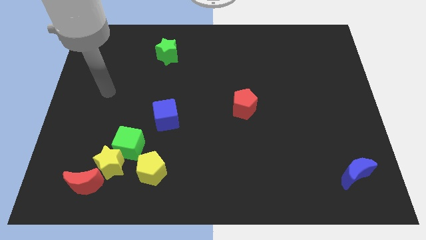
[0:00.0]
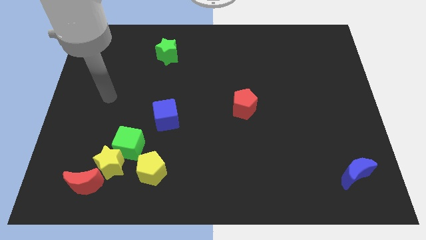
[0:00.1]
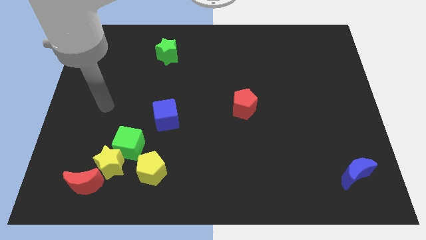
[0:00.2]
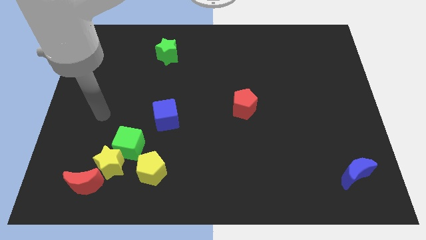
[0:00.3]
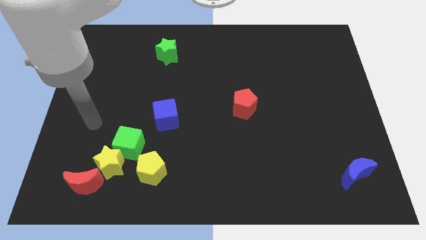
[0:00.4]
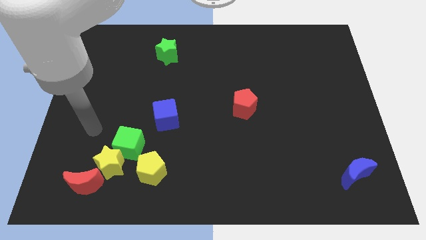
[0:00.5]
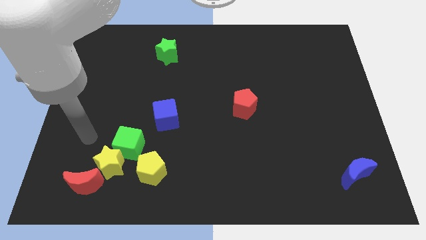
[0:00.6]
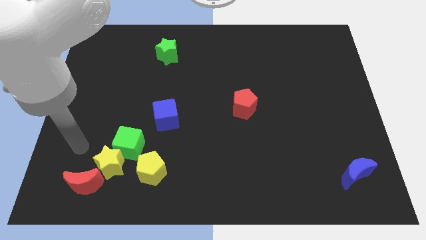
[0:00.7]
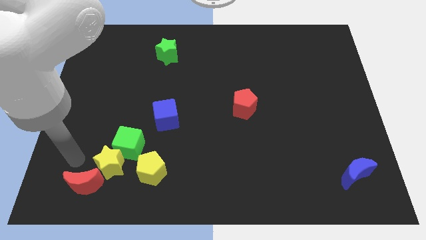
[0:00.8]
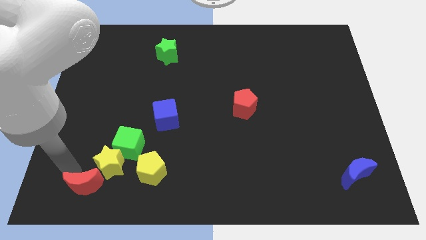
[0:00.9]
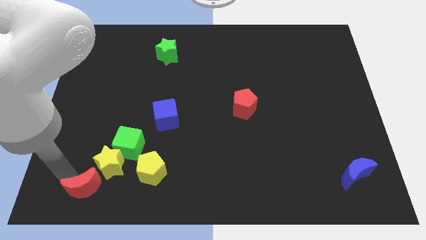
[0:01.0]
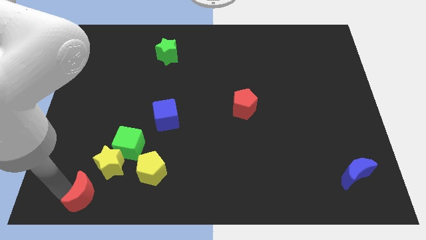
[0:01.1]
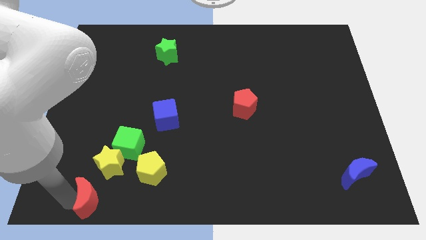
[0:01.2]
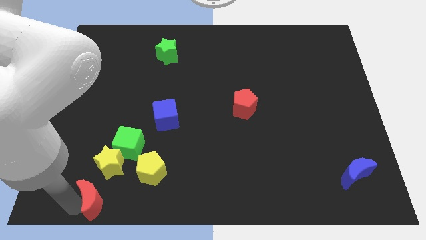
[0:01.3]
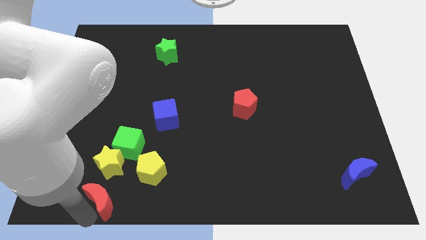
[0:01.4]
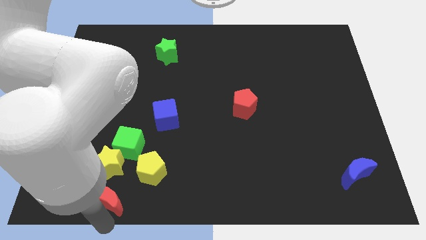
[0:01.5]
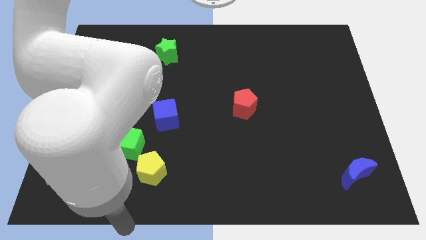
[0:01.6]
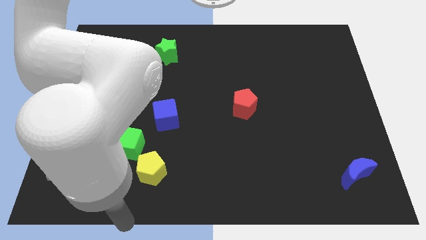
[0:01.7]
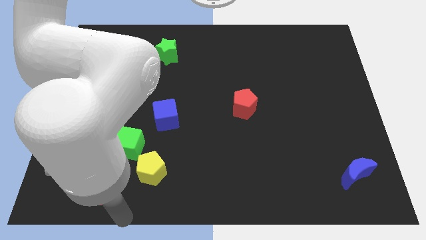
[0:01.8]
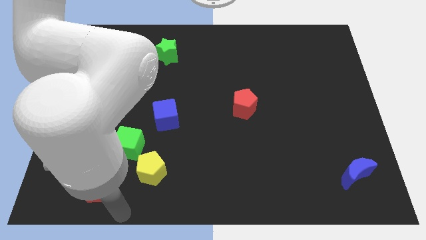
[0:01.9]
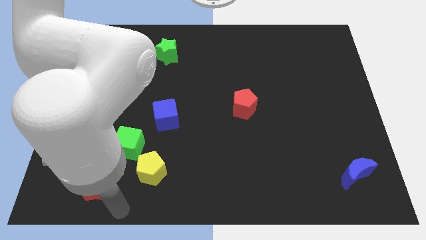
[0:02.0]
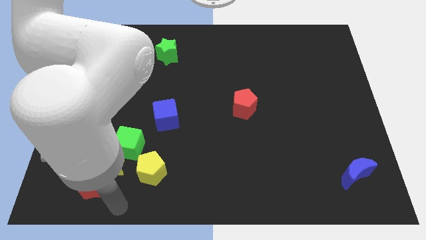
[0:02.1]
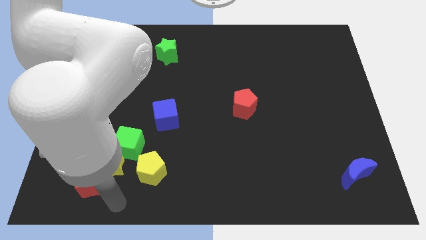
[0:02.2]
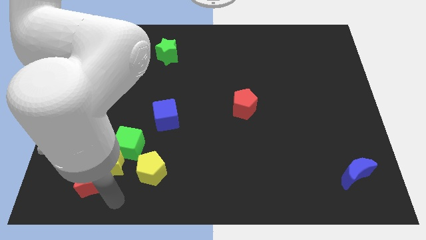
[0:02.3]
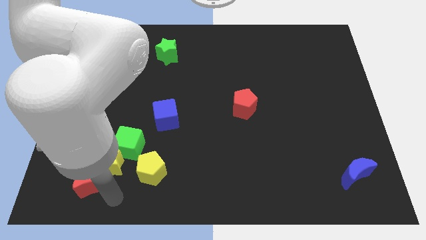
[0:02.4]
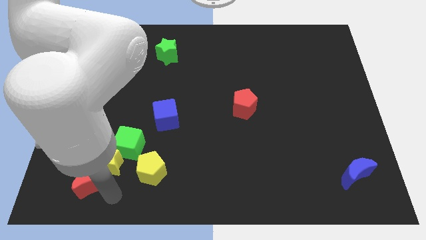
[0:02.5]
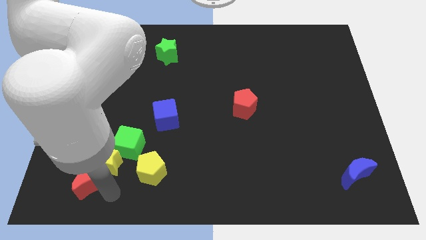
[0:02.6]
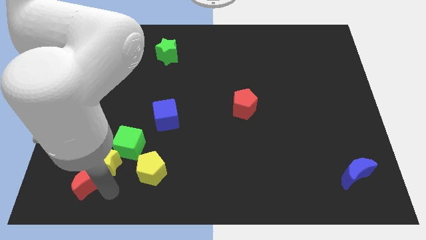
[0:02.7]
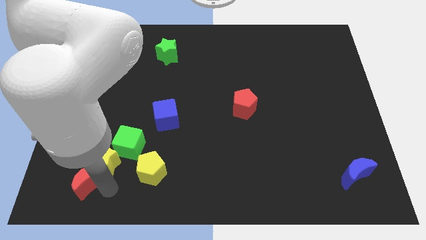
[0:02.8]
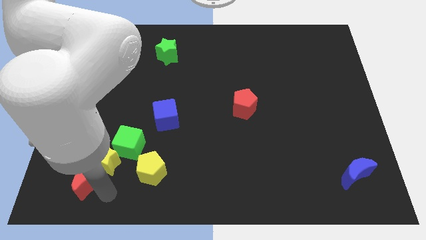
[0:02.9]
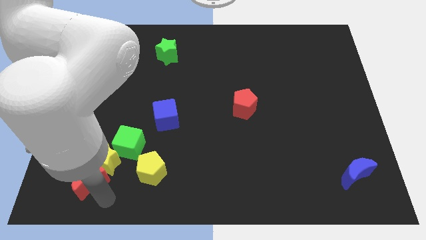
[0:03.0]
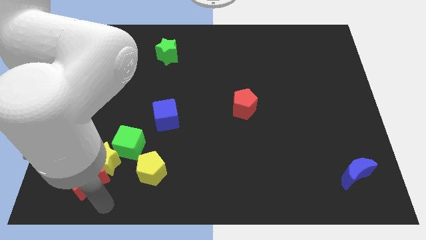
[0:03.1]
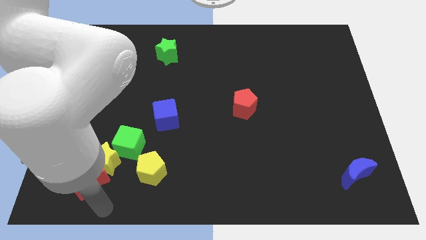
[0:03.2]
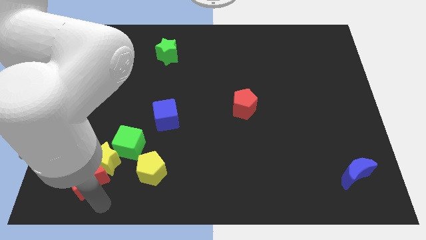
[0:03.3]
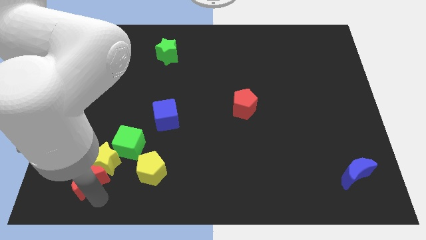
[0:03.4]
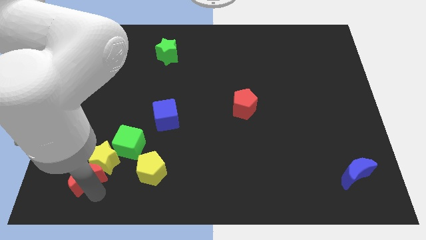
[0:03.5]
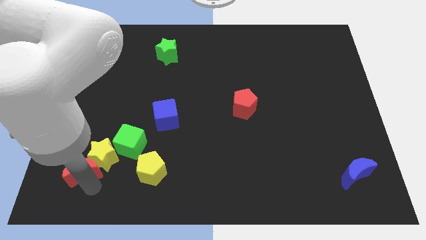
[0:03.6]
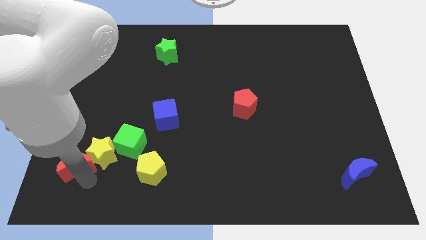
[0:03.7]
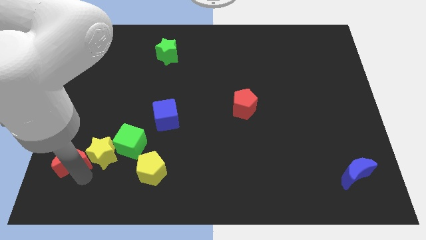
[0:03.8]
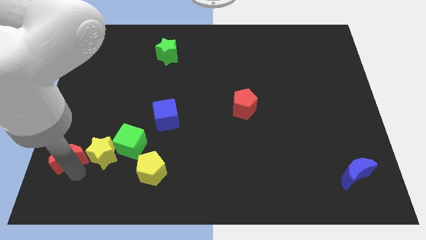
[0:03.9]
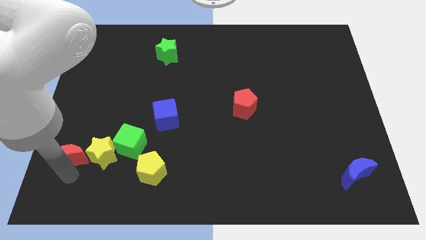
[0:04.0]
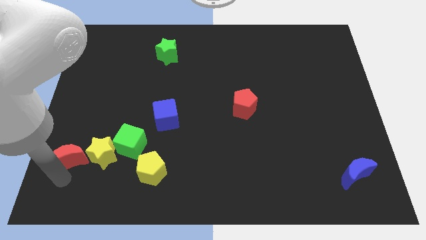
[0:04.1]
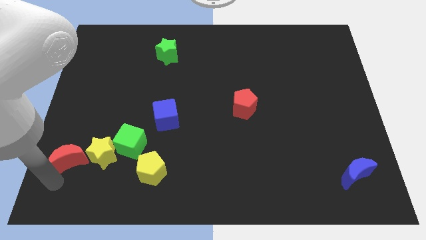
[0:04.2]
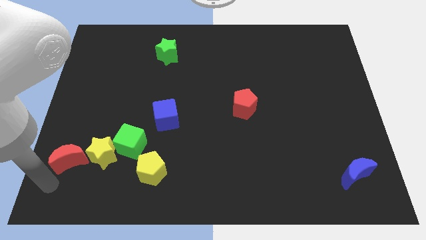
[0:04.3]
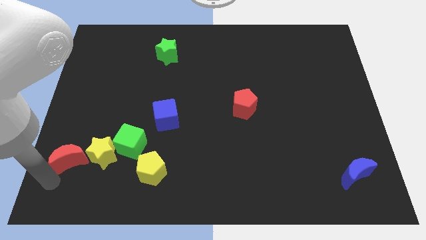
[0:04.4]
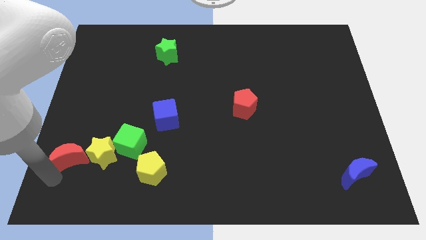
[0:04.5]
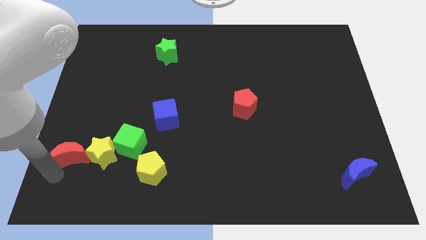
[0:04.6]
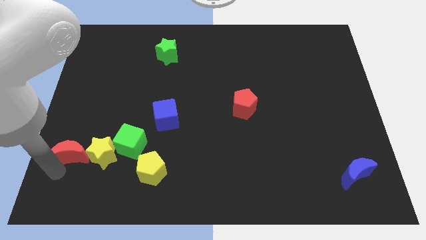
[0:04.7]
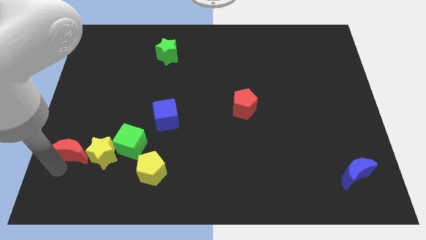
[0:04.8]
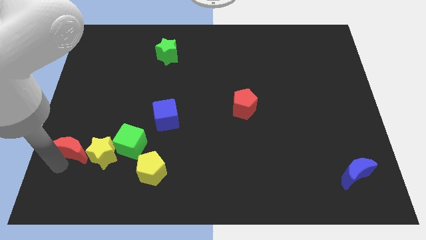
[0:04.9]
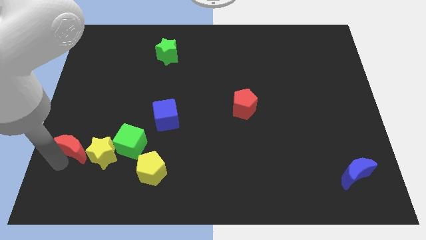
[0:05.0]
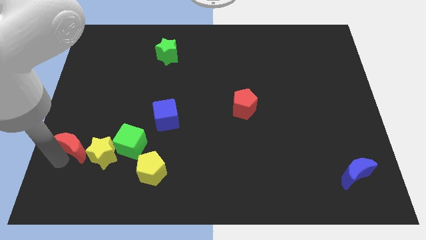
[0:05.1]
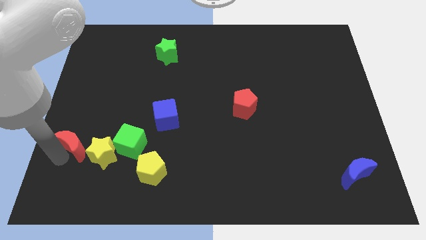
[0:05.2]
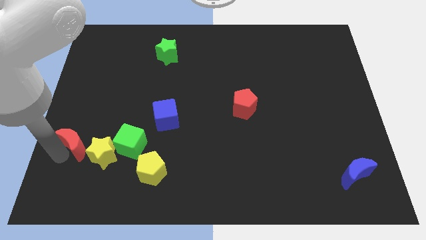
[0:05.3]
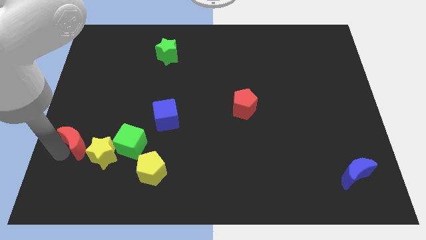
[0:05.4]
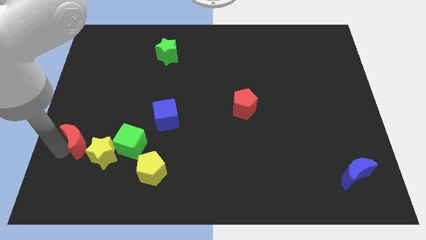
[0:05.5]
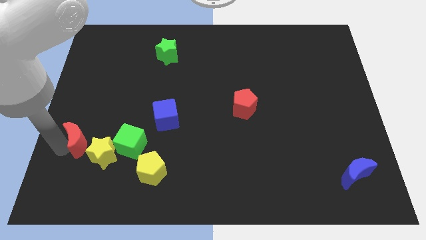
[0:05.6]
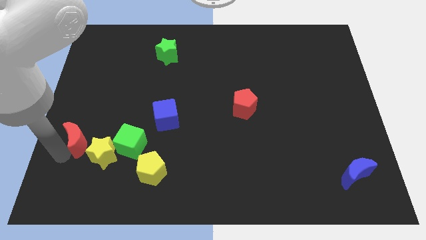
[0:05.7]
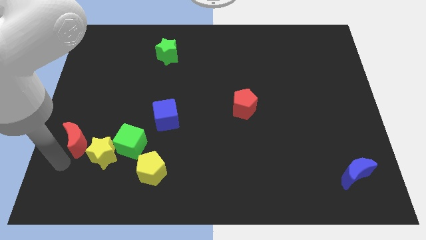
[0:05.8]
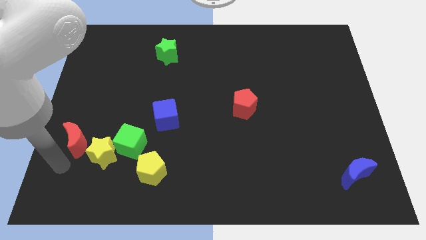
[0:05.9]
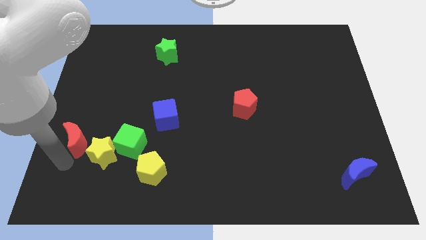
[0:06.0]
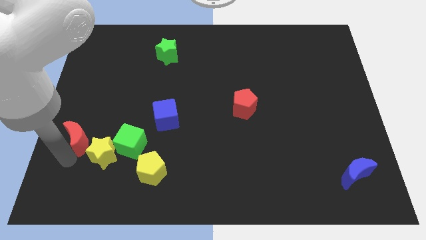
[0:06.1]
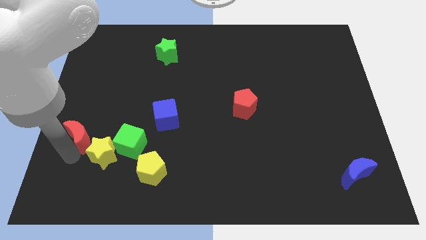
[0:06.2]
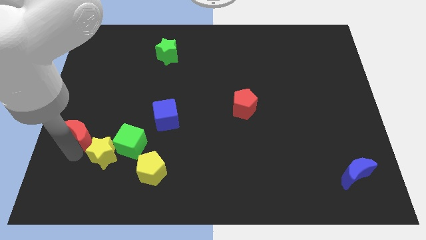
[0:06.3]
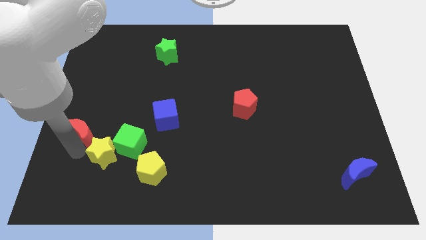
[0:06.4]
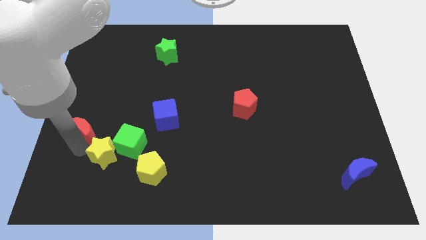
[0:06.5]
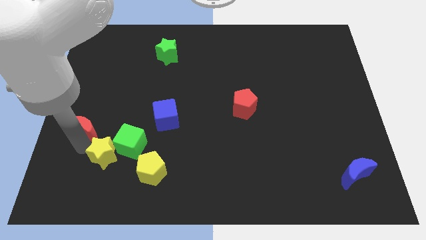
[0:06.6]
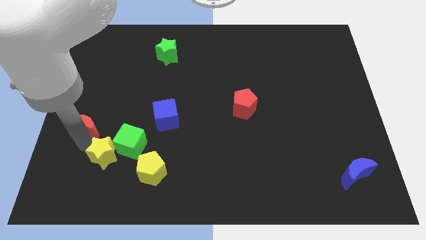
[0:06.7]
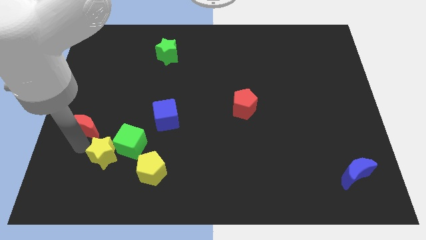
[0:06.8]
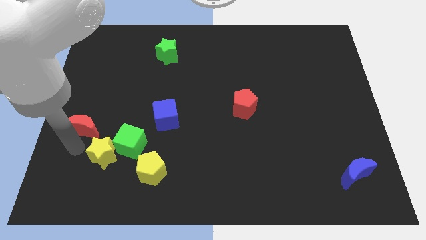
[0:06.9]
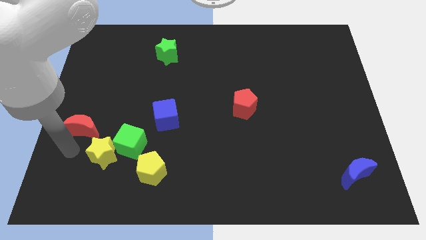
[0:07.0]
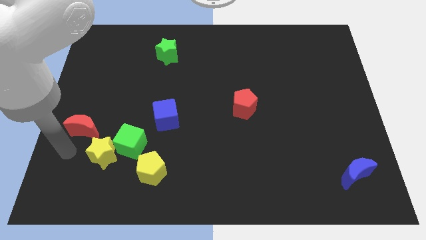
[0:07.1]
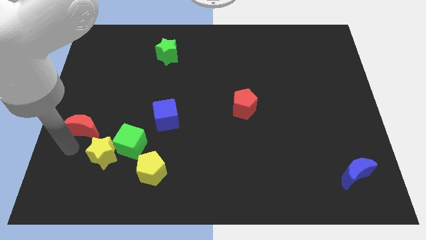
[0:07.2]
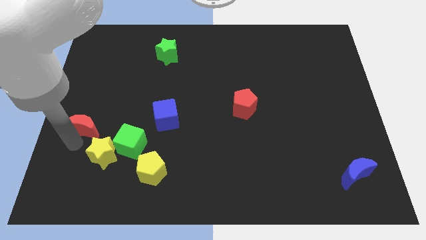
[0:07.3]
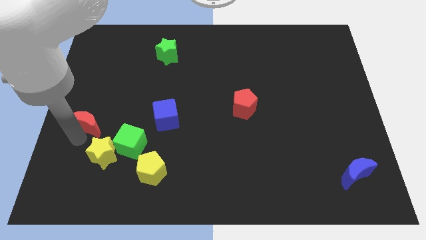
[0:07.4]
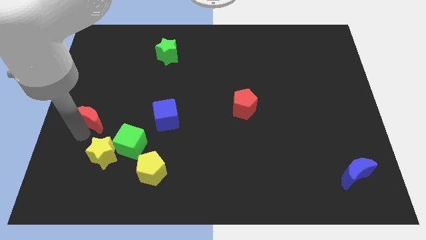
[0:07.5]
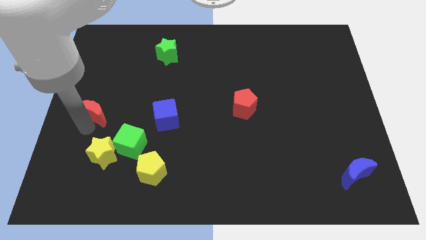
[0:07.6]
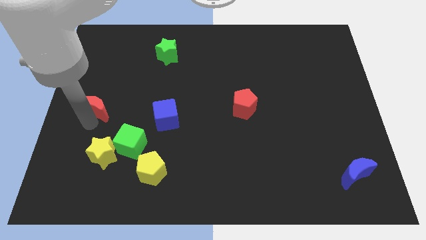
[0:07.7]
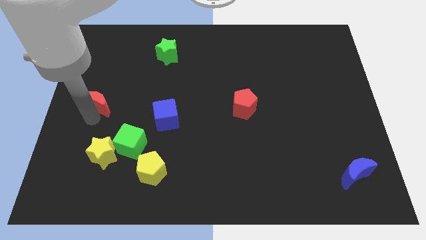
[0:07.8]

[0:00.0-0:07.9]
move the red moon upwards

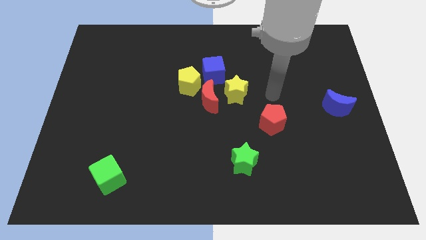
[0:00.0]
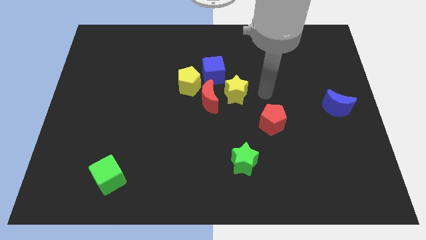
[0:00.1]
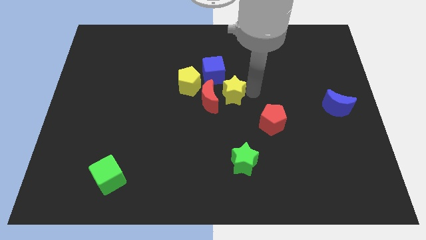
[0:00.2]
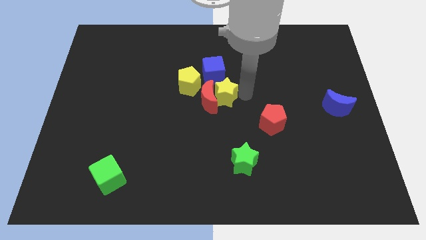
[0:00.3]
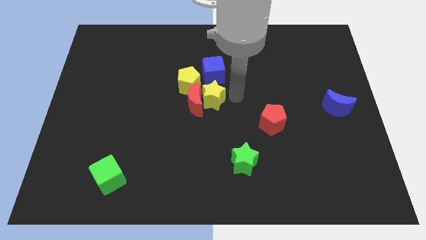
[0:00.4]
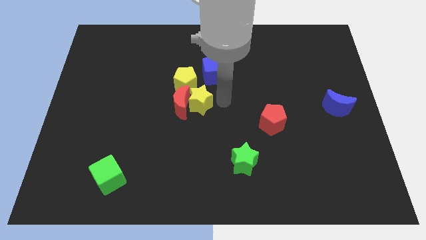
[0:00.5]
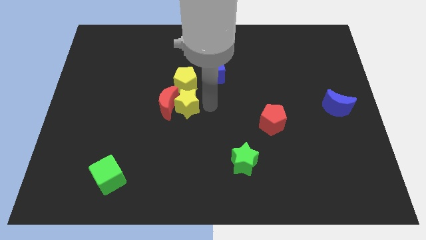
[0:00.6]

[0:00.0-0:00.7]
push the red moon left a bit
